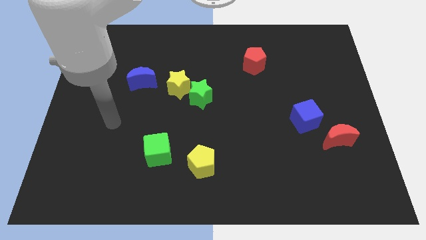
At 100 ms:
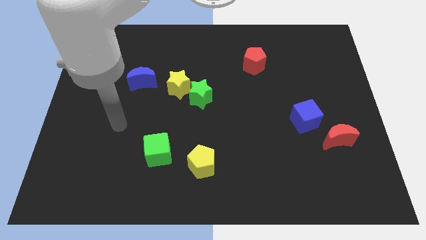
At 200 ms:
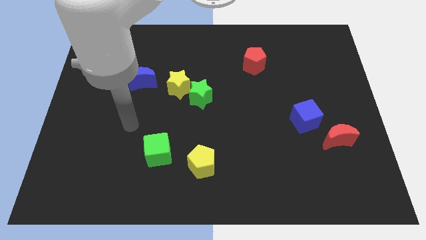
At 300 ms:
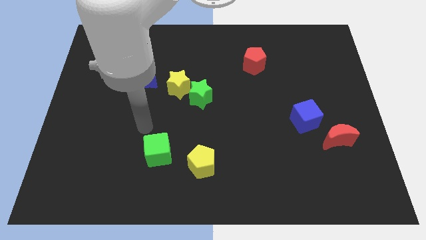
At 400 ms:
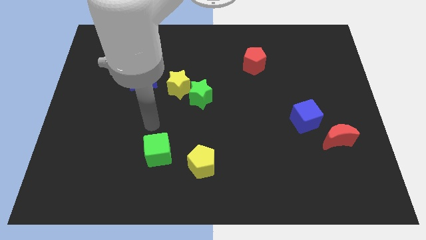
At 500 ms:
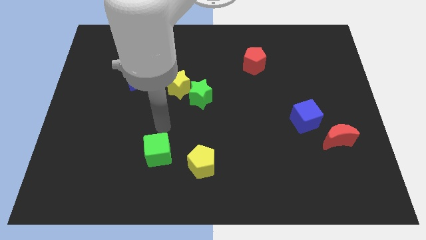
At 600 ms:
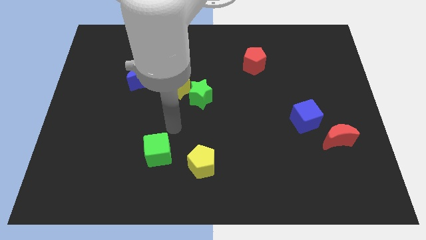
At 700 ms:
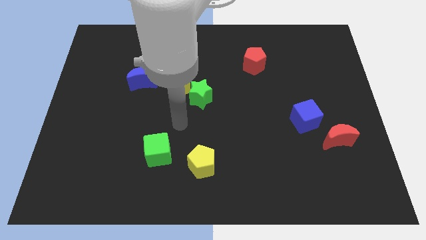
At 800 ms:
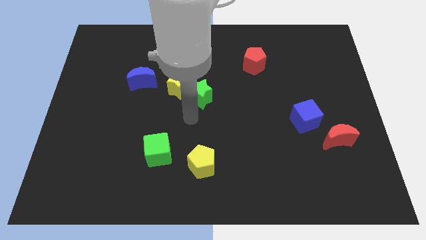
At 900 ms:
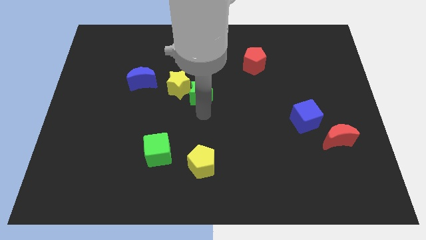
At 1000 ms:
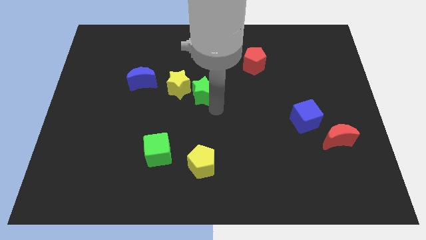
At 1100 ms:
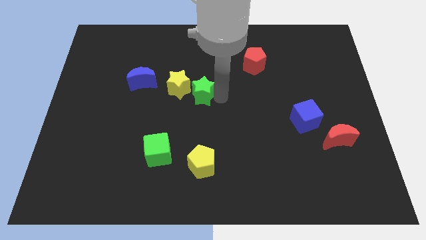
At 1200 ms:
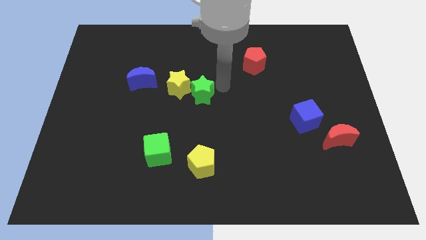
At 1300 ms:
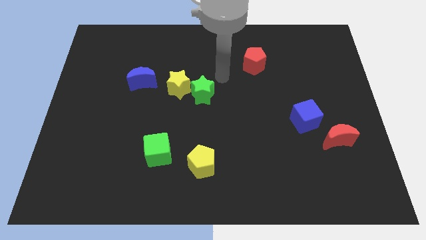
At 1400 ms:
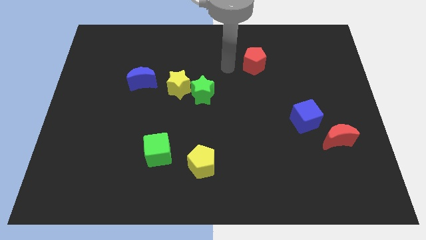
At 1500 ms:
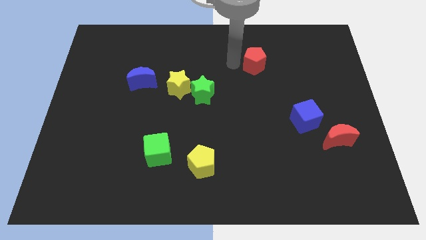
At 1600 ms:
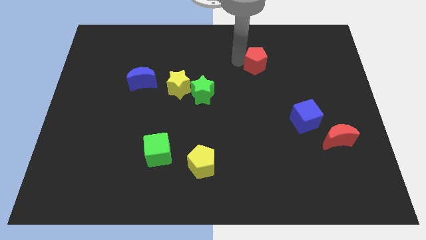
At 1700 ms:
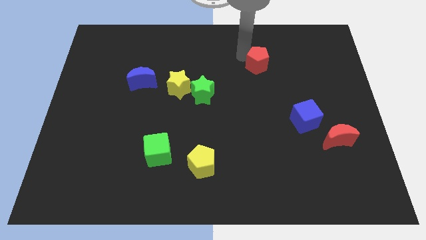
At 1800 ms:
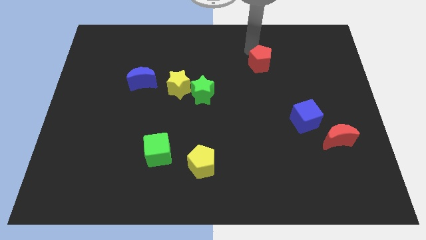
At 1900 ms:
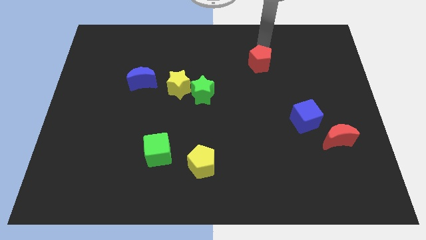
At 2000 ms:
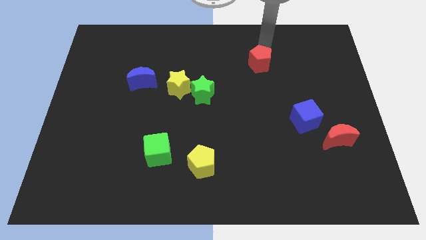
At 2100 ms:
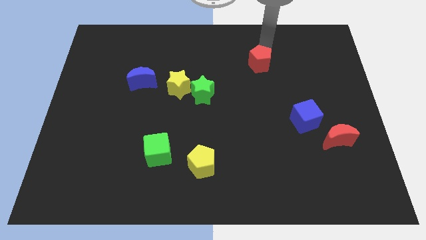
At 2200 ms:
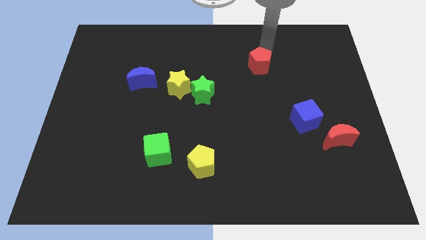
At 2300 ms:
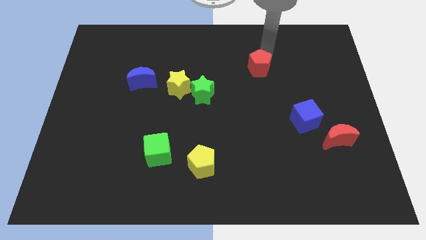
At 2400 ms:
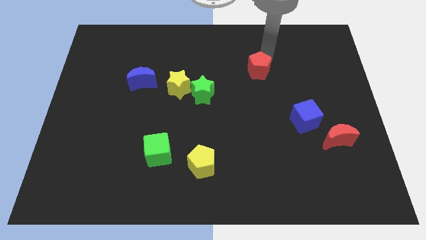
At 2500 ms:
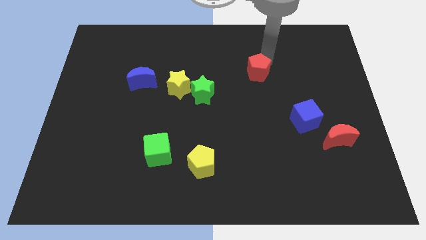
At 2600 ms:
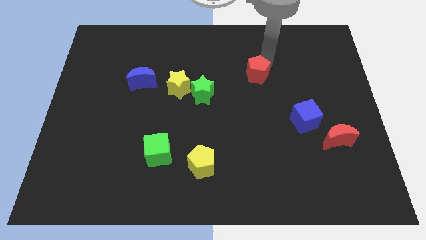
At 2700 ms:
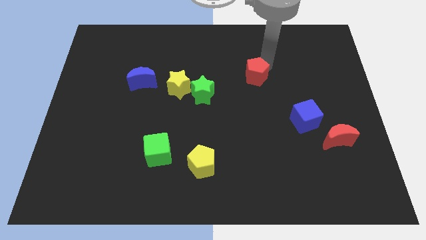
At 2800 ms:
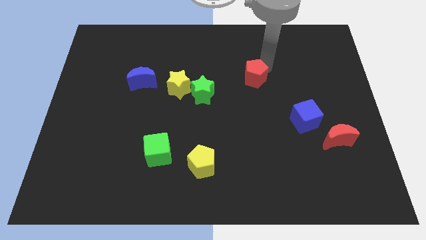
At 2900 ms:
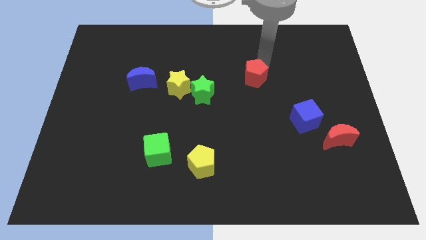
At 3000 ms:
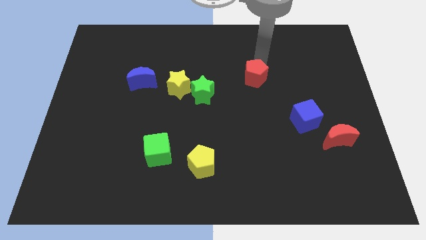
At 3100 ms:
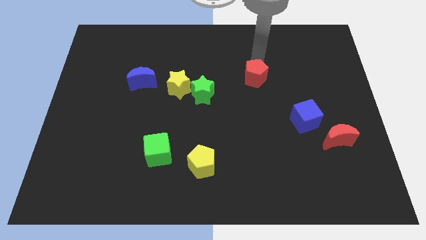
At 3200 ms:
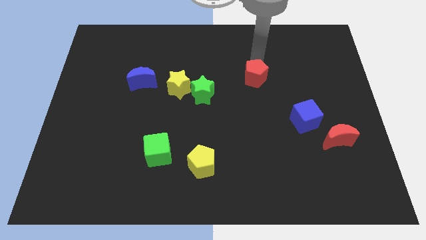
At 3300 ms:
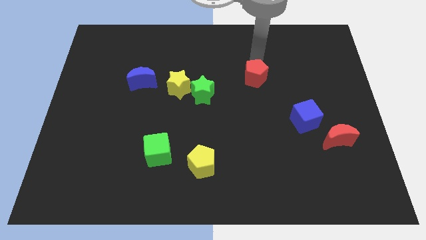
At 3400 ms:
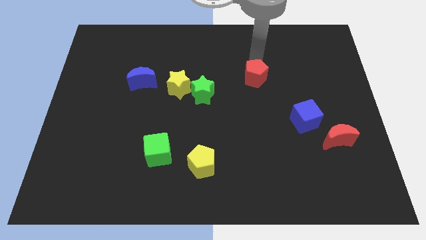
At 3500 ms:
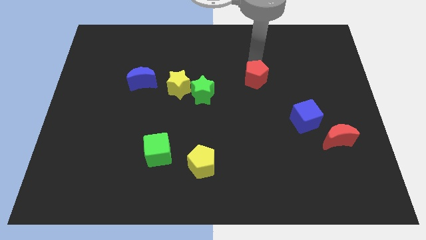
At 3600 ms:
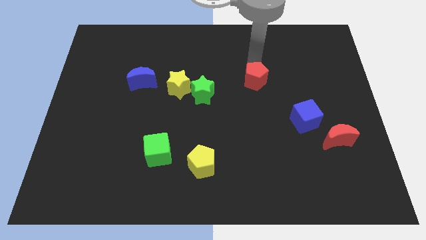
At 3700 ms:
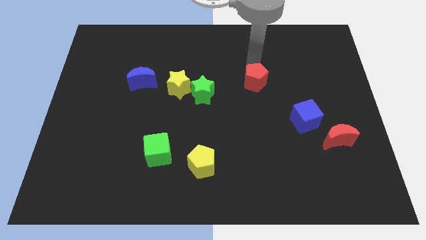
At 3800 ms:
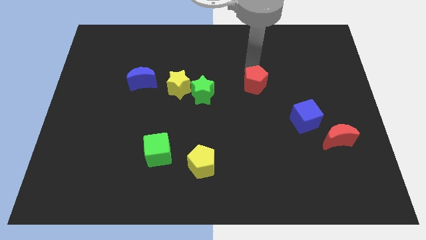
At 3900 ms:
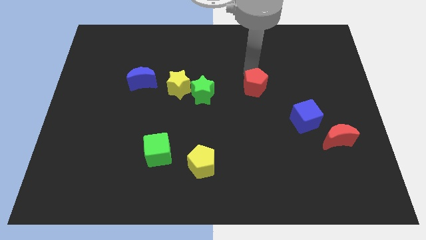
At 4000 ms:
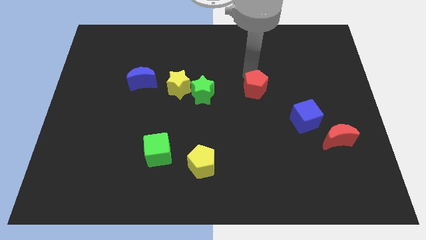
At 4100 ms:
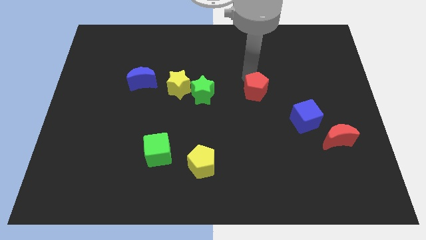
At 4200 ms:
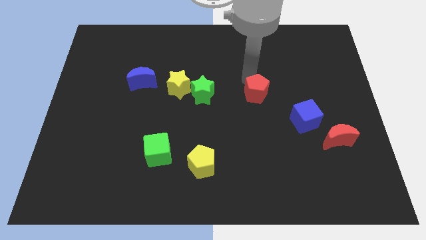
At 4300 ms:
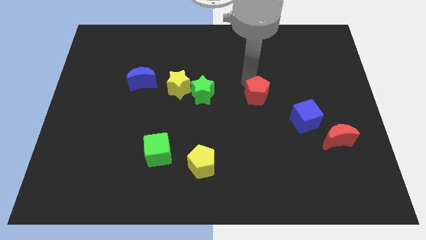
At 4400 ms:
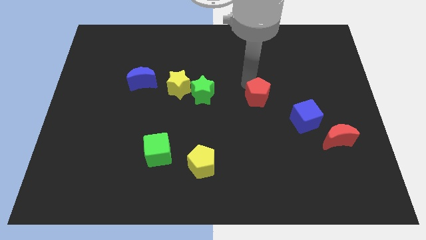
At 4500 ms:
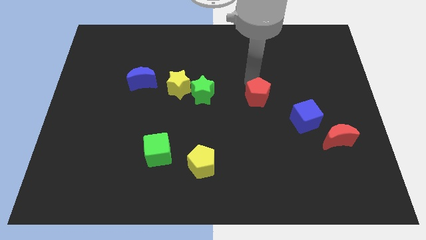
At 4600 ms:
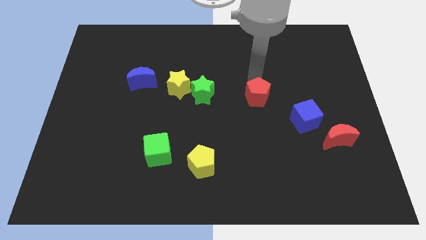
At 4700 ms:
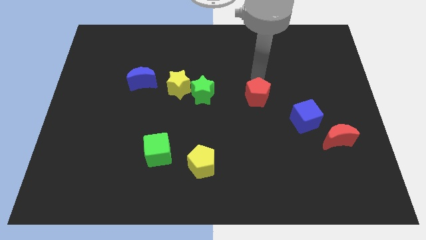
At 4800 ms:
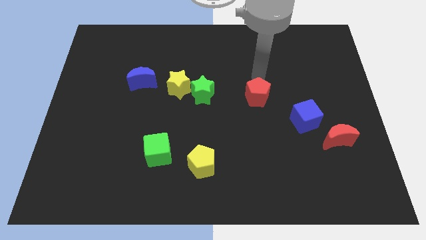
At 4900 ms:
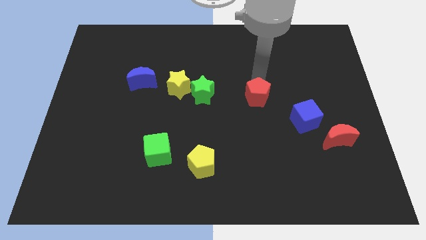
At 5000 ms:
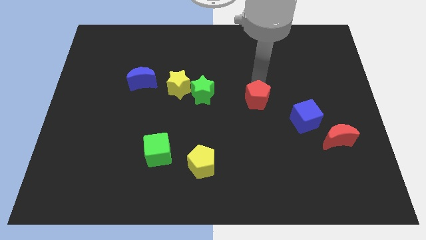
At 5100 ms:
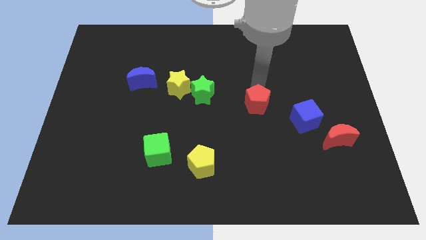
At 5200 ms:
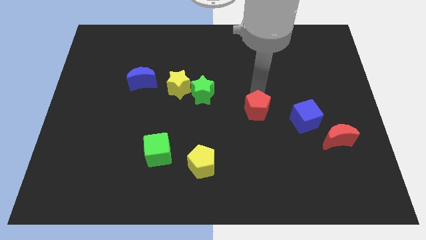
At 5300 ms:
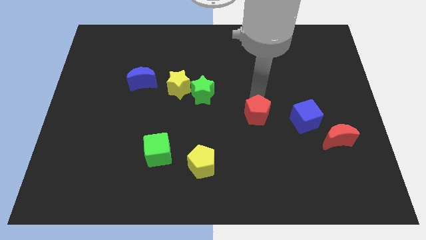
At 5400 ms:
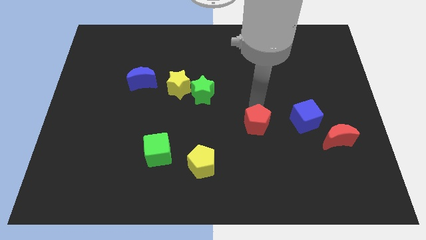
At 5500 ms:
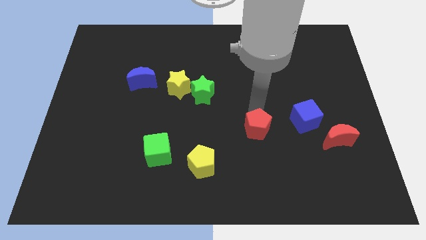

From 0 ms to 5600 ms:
push the red pentagon downwards

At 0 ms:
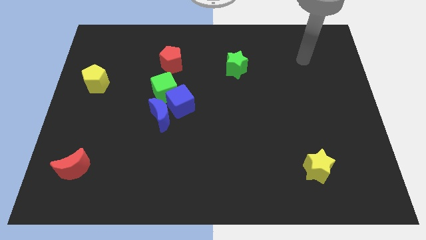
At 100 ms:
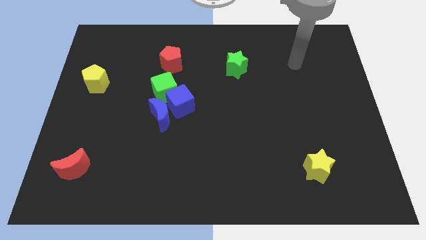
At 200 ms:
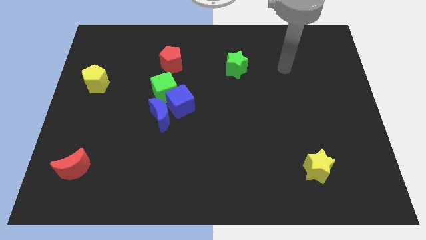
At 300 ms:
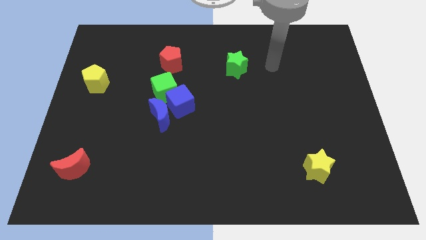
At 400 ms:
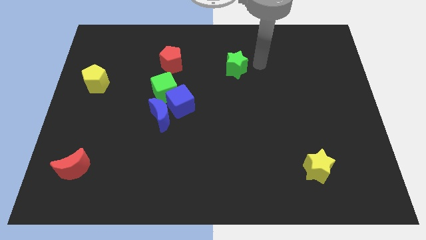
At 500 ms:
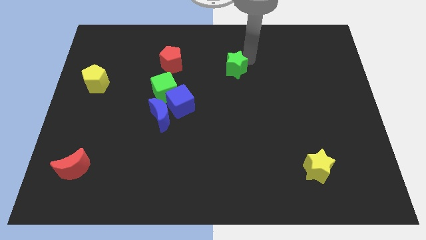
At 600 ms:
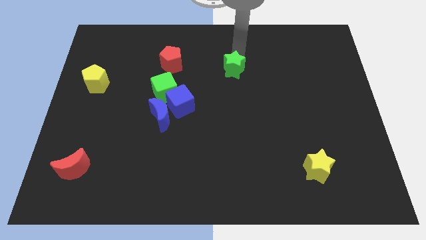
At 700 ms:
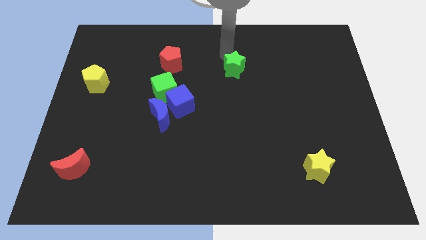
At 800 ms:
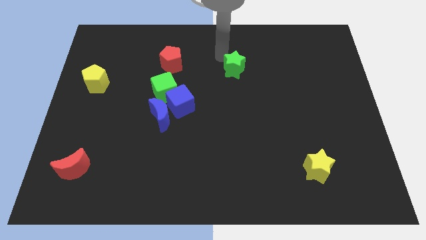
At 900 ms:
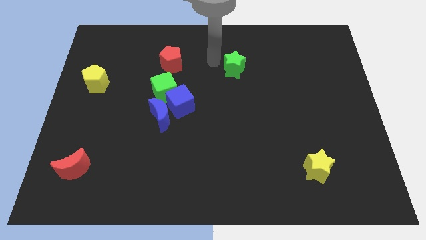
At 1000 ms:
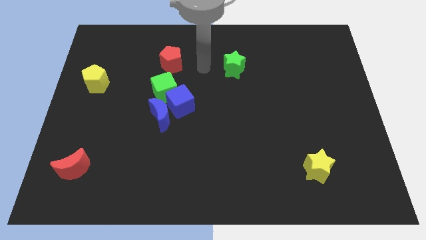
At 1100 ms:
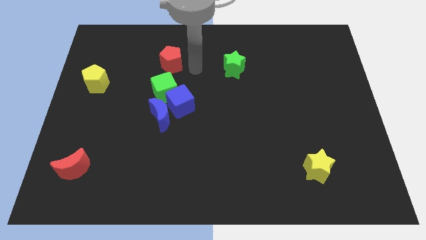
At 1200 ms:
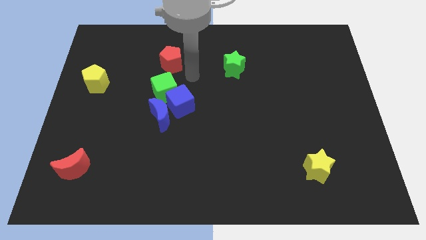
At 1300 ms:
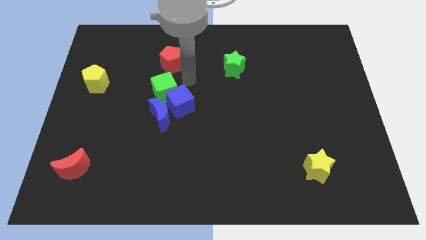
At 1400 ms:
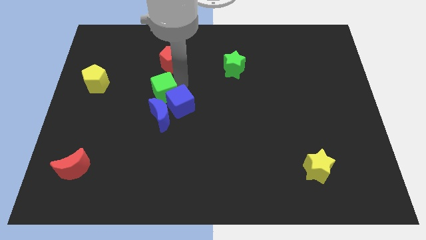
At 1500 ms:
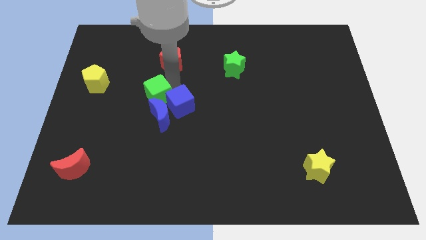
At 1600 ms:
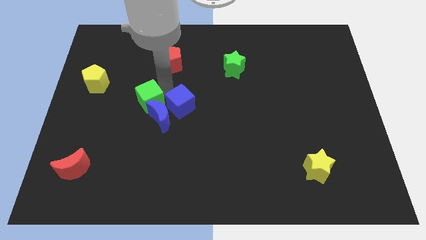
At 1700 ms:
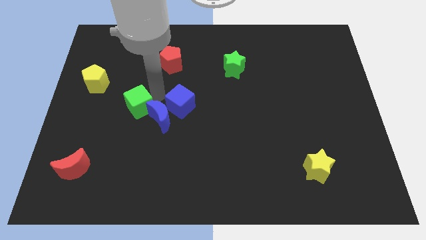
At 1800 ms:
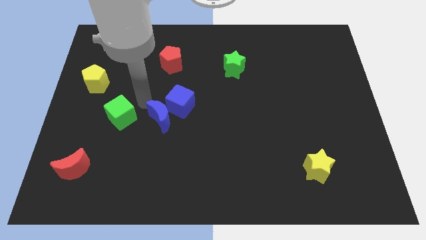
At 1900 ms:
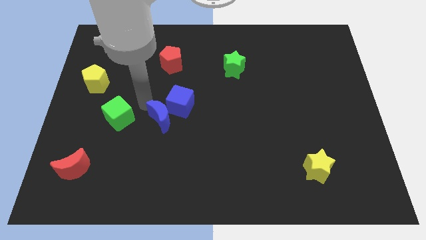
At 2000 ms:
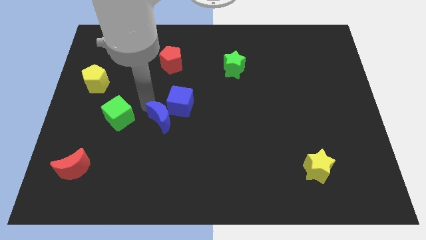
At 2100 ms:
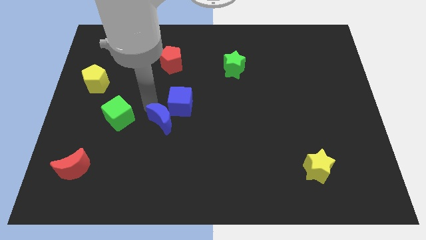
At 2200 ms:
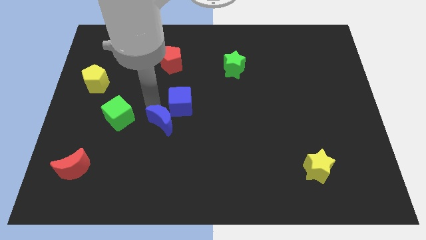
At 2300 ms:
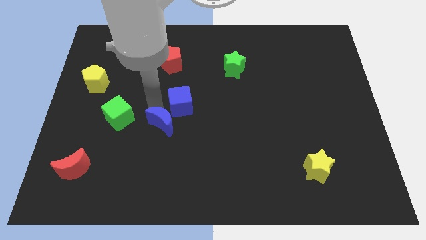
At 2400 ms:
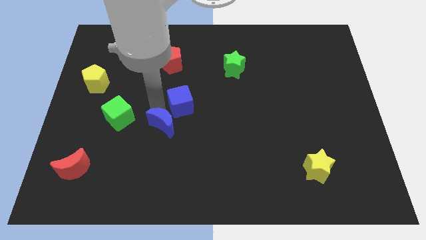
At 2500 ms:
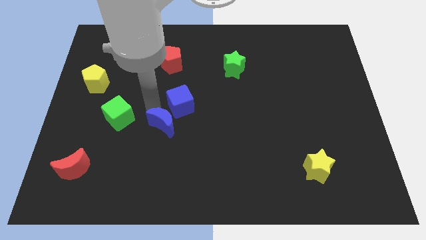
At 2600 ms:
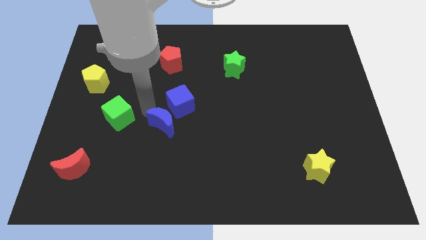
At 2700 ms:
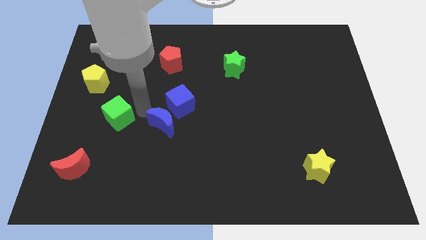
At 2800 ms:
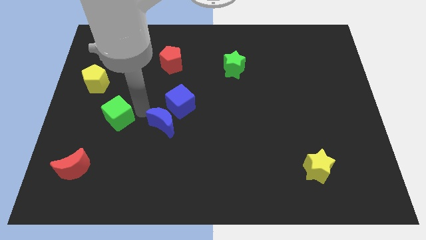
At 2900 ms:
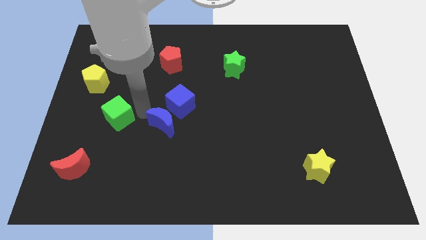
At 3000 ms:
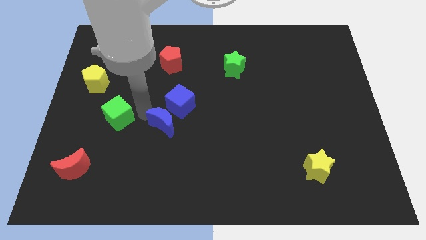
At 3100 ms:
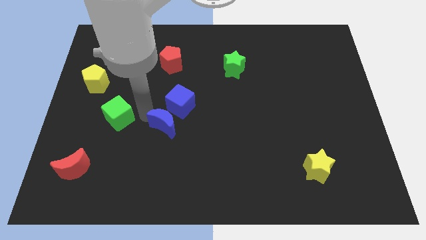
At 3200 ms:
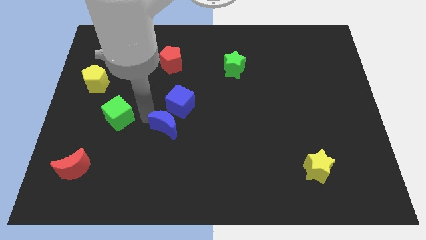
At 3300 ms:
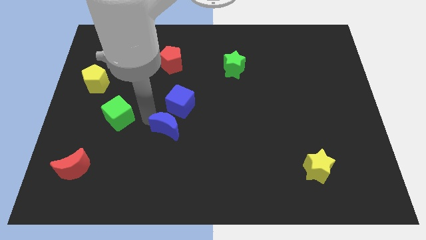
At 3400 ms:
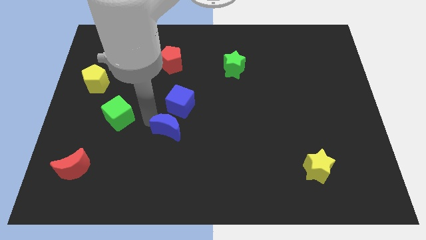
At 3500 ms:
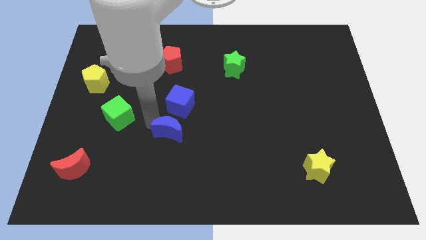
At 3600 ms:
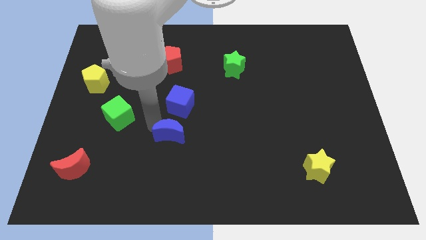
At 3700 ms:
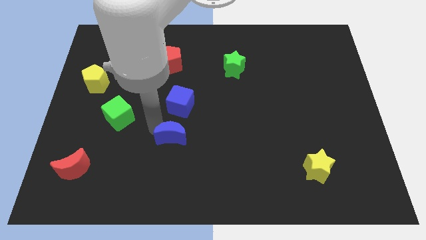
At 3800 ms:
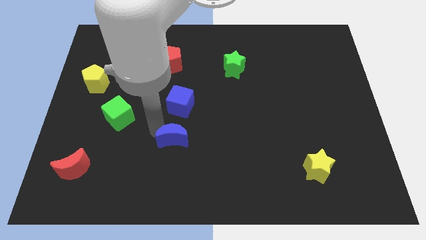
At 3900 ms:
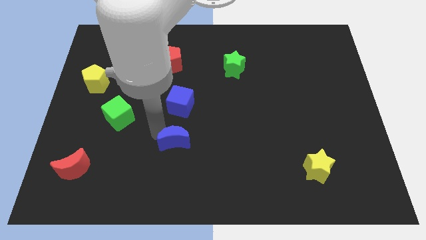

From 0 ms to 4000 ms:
slightly move the blue moon diagonally down and to the right
